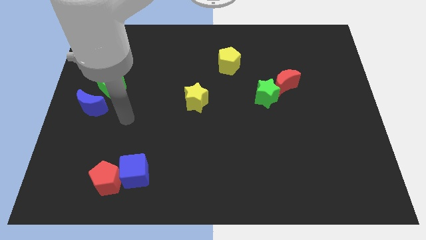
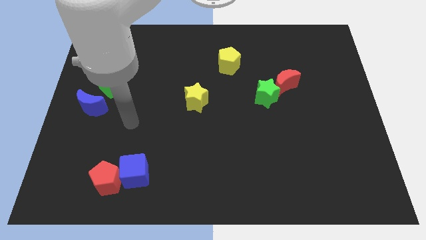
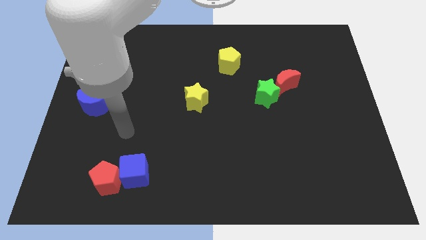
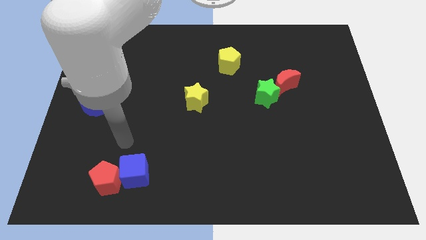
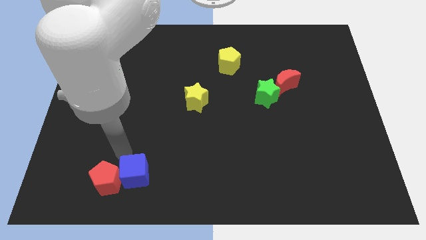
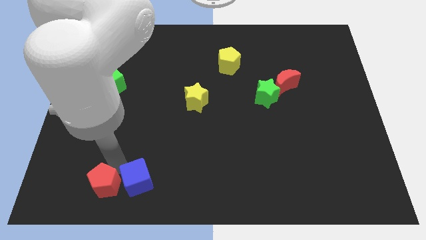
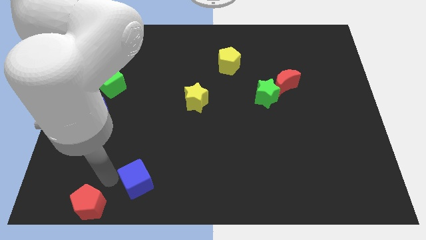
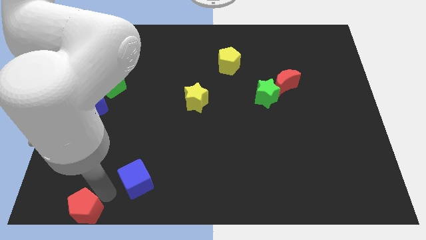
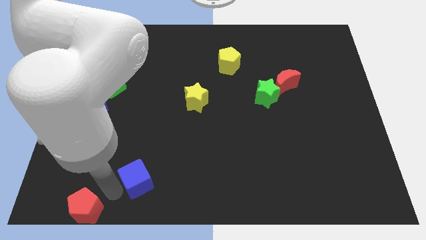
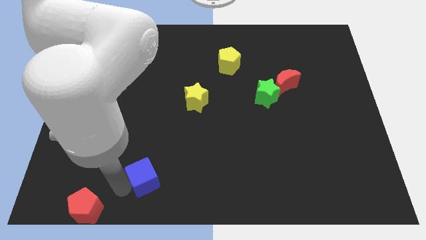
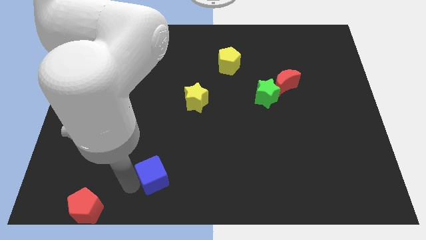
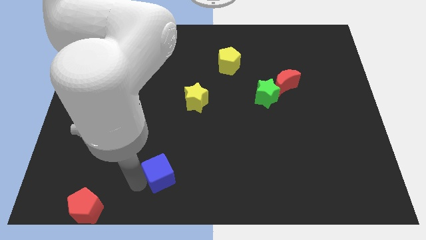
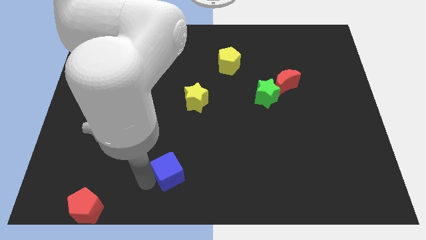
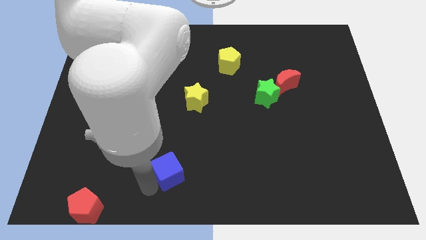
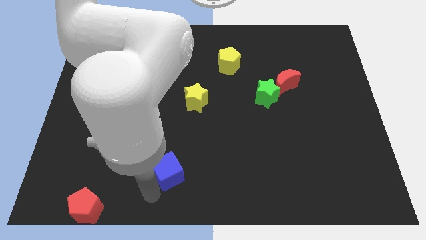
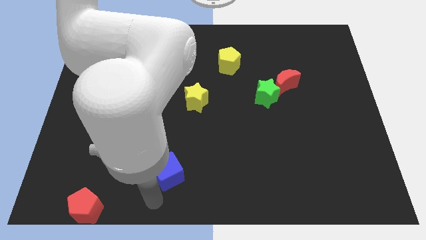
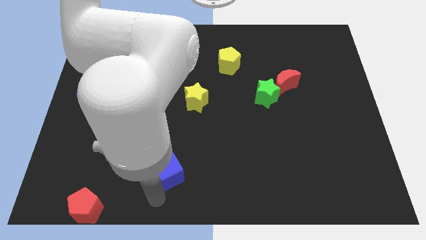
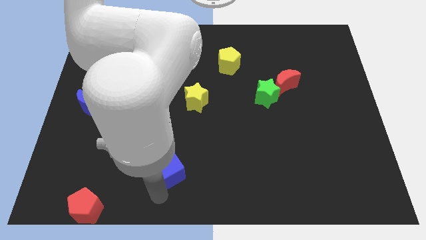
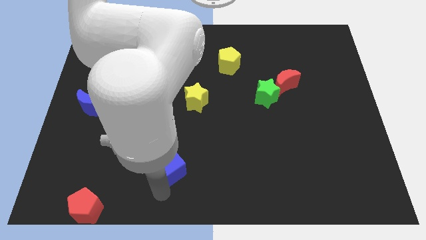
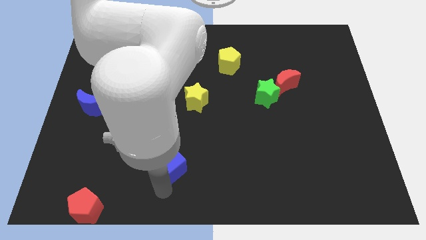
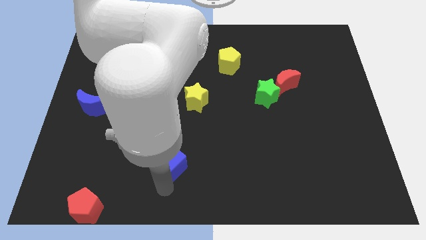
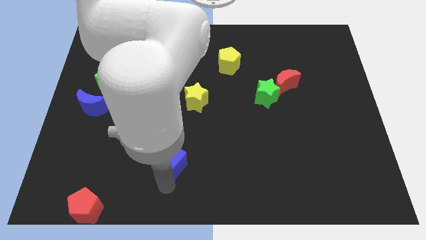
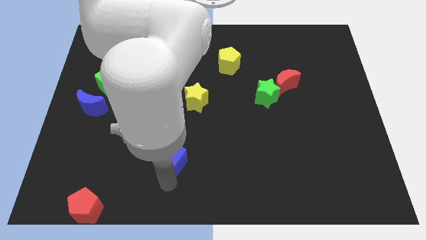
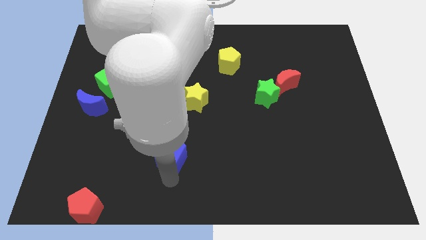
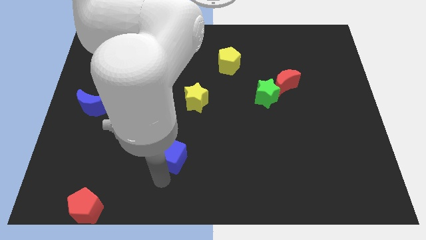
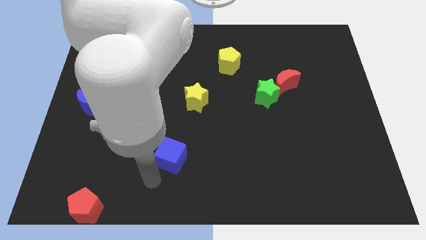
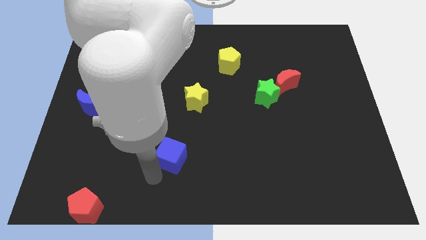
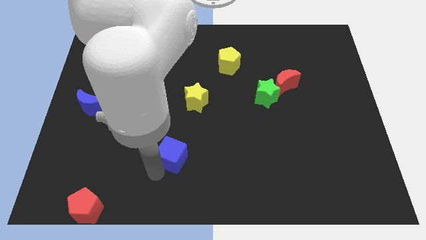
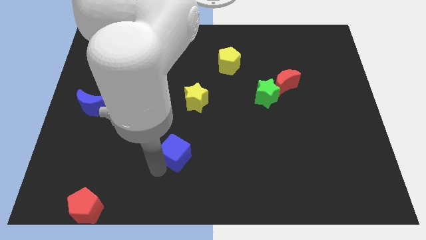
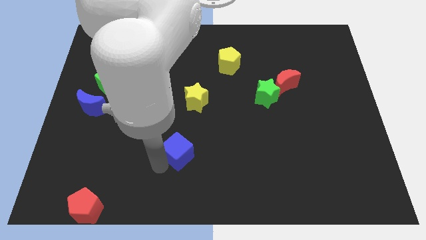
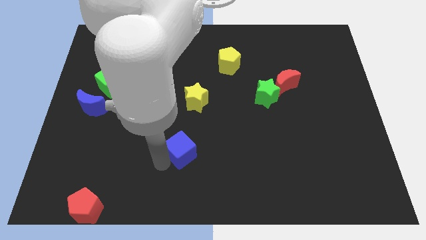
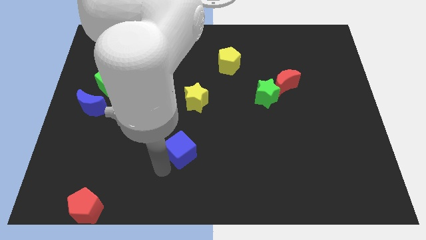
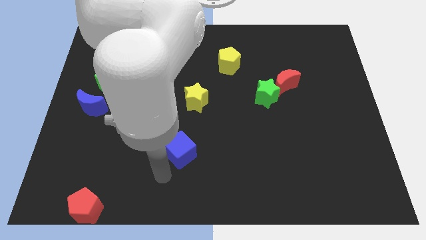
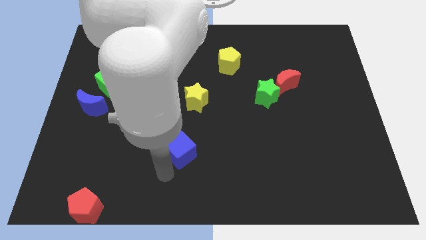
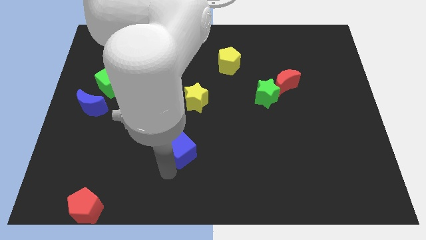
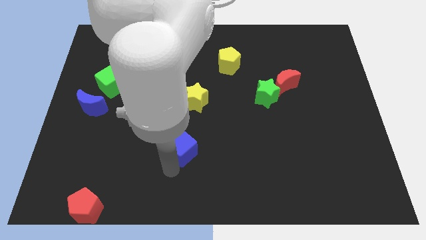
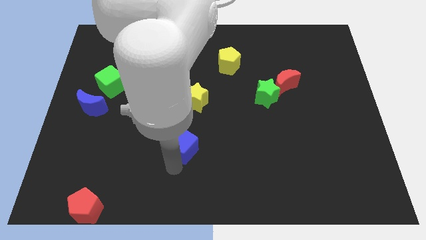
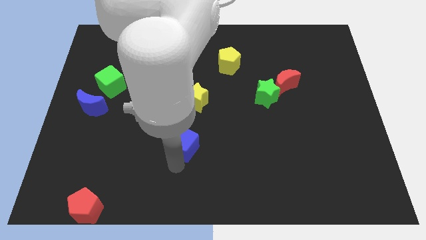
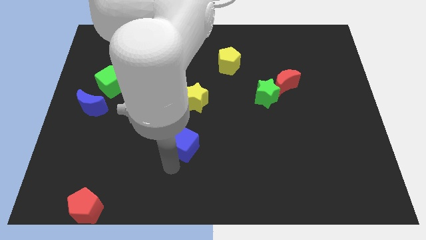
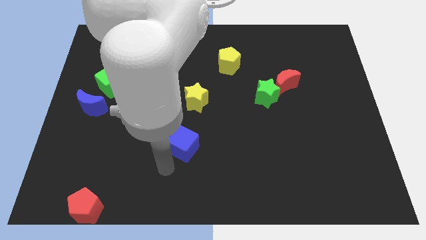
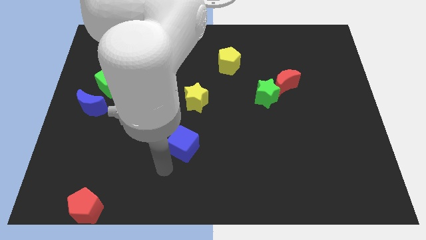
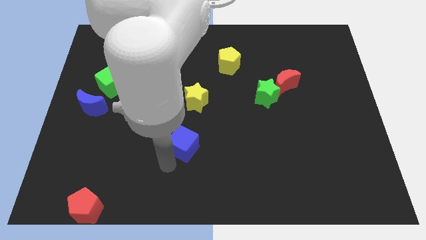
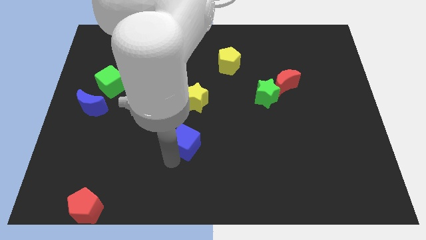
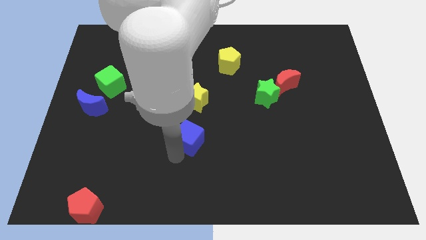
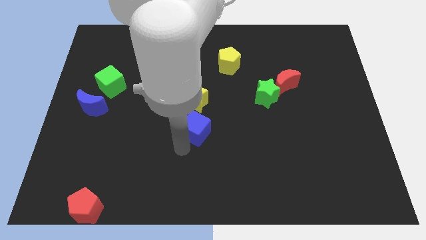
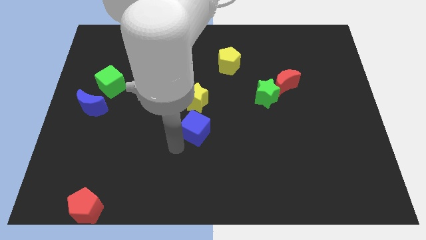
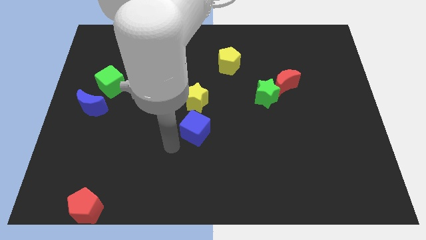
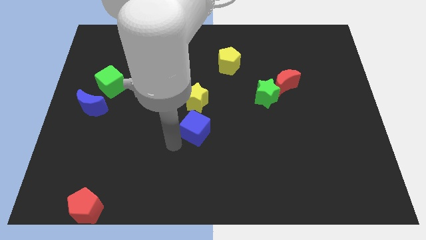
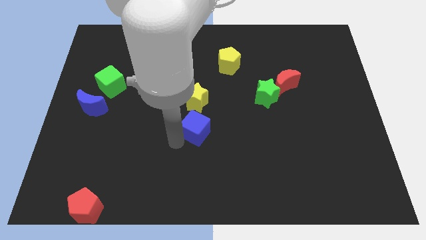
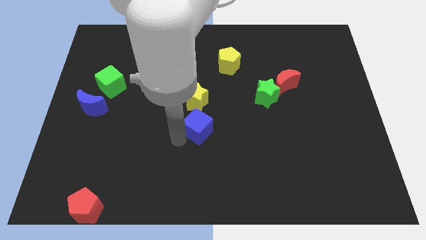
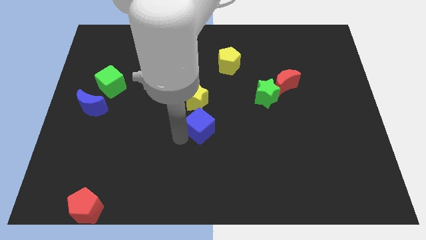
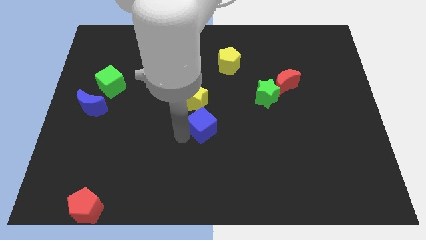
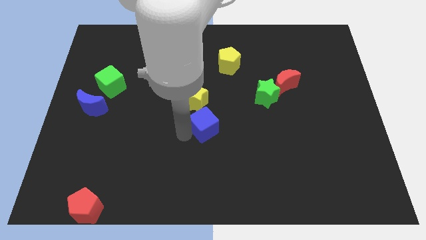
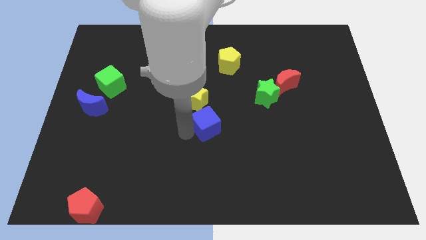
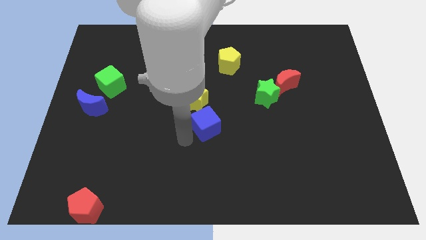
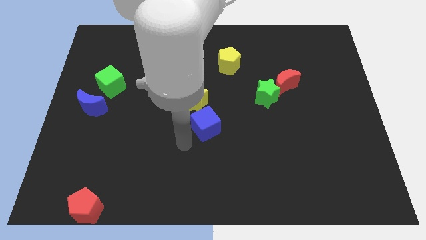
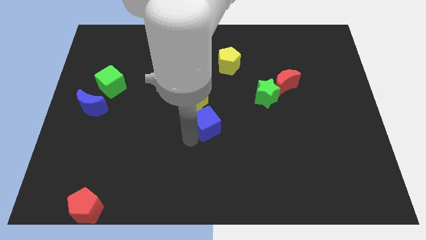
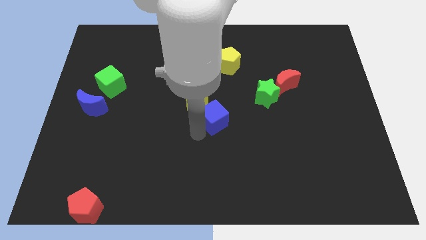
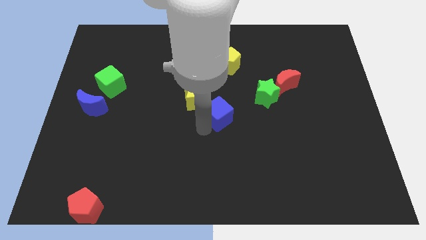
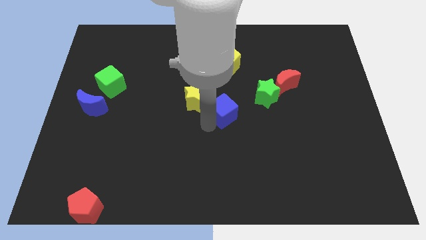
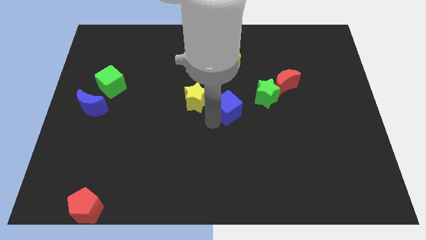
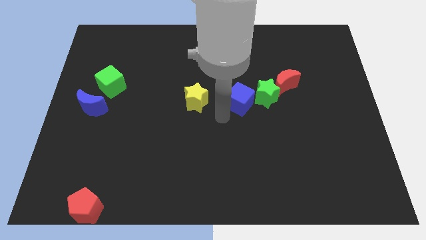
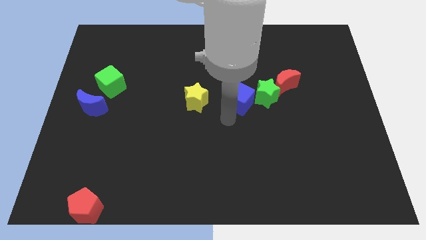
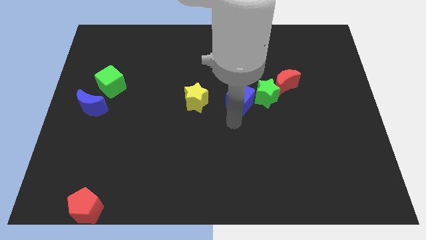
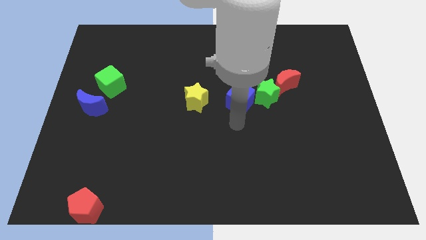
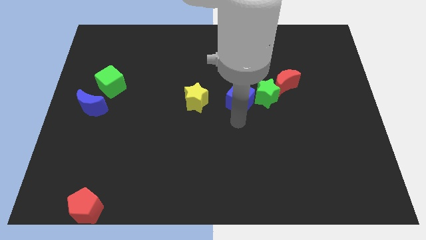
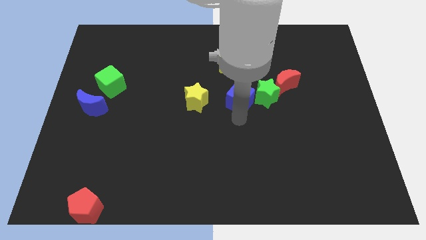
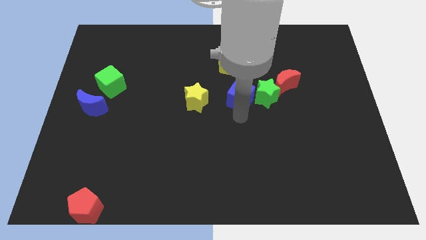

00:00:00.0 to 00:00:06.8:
slide the blue cube to the top left of the green star

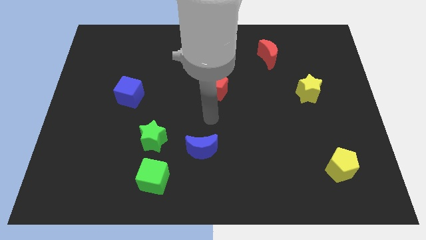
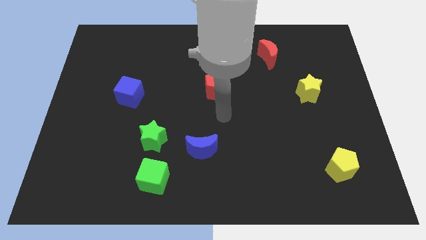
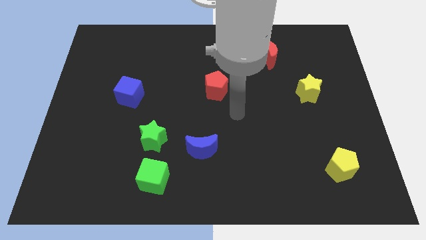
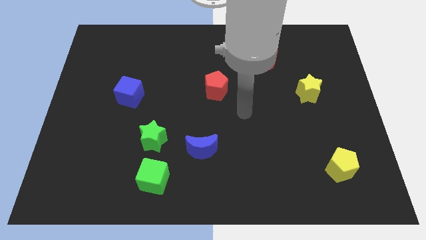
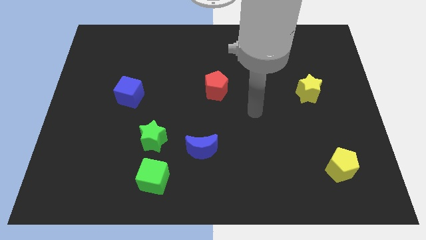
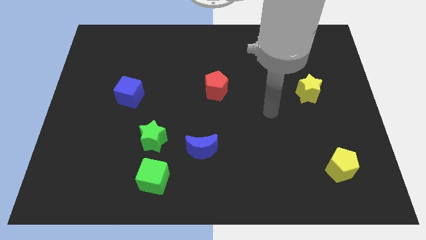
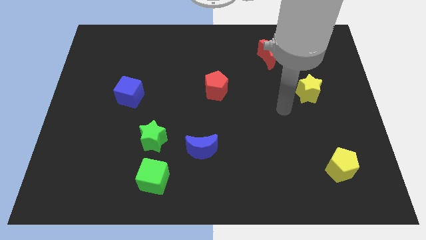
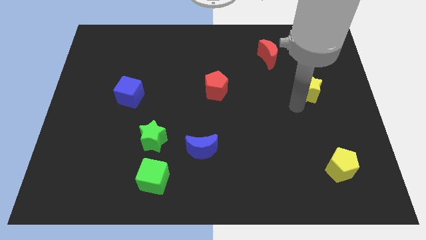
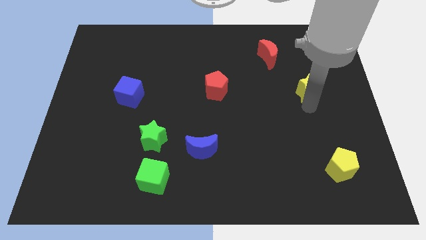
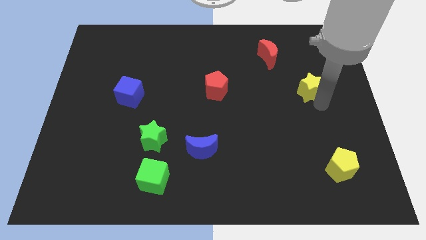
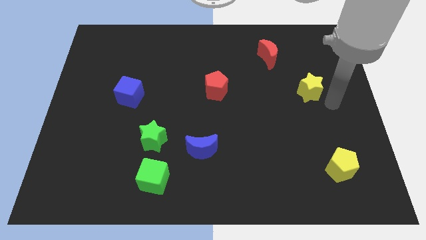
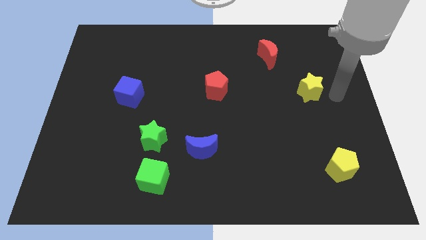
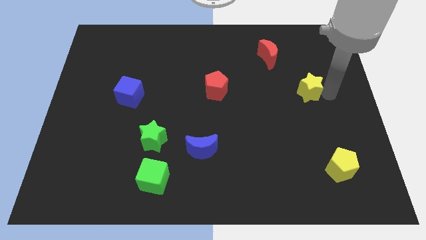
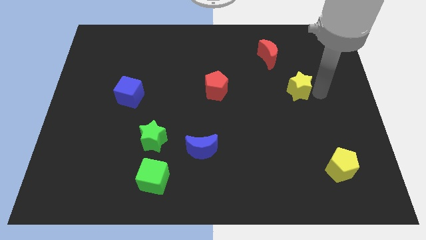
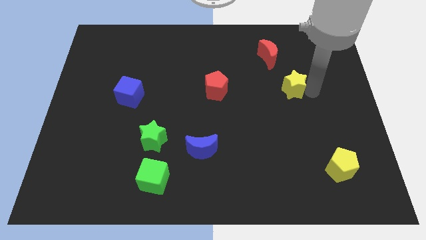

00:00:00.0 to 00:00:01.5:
move the yellow star below the red moon
